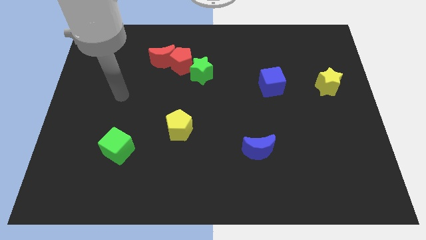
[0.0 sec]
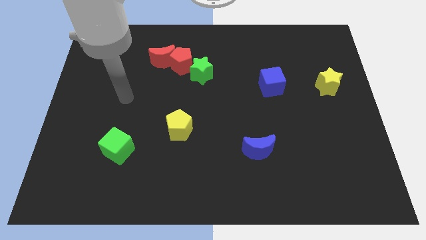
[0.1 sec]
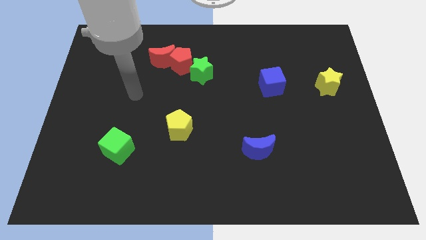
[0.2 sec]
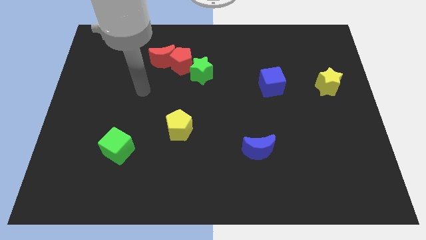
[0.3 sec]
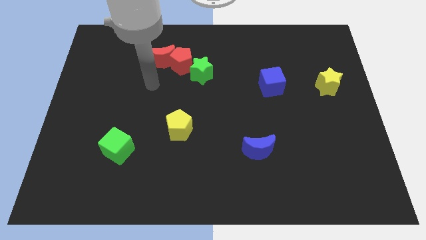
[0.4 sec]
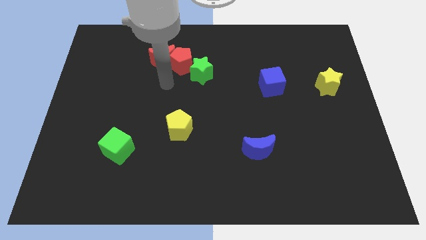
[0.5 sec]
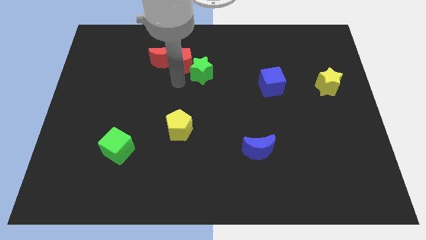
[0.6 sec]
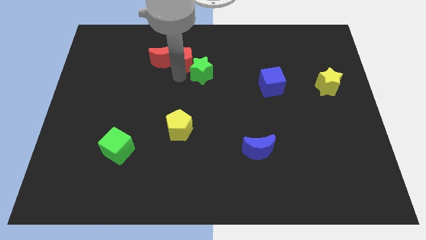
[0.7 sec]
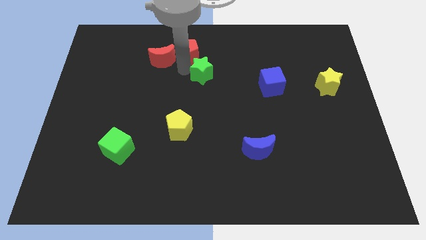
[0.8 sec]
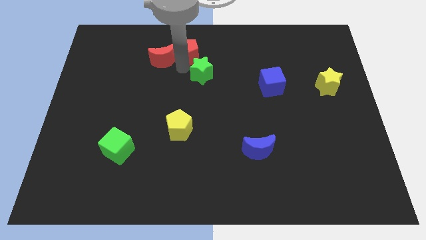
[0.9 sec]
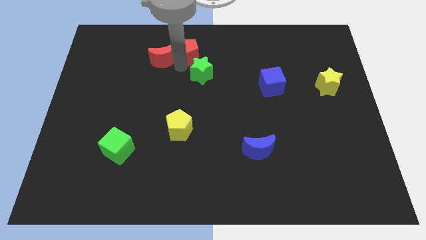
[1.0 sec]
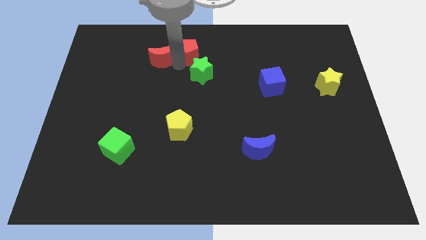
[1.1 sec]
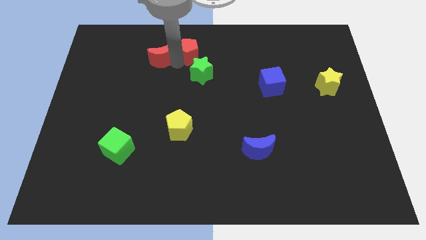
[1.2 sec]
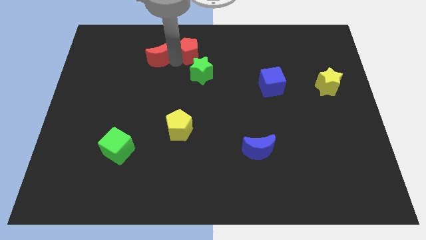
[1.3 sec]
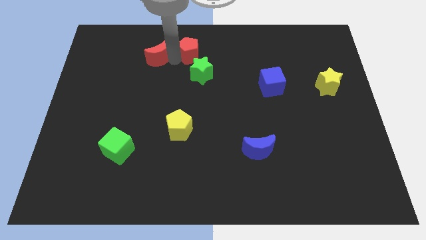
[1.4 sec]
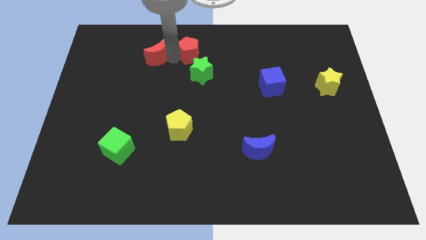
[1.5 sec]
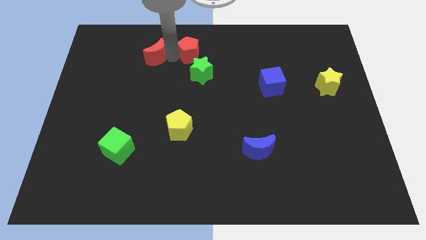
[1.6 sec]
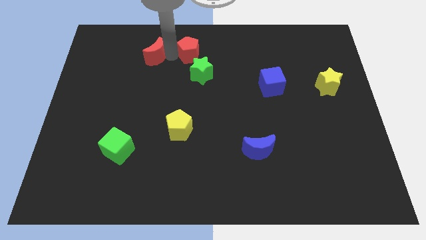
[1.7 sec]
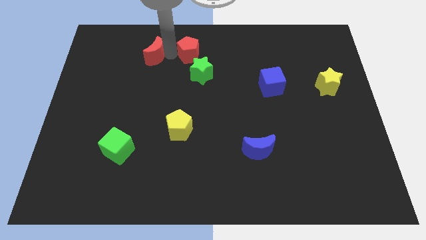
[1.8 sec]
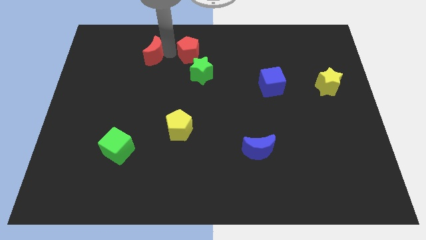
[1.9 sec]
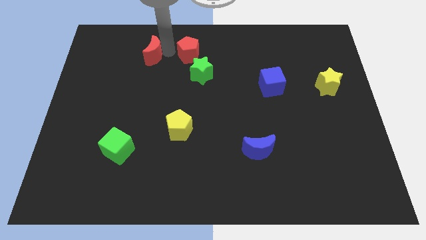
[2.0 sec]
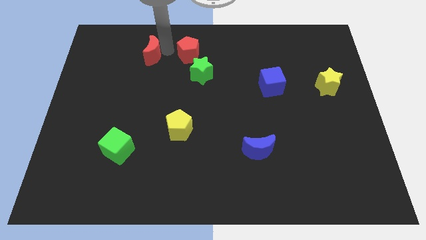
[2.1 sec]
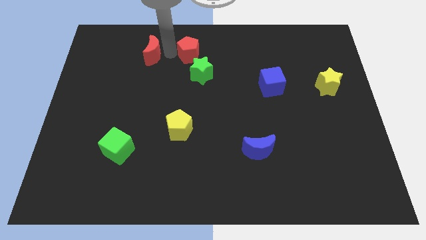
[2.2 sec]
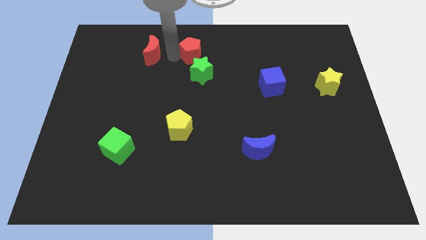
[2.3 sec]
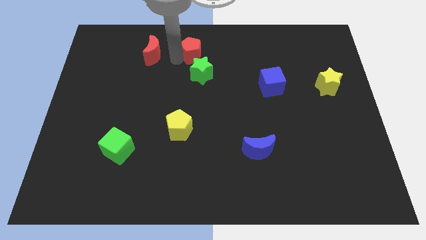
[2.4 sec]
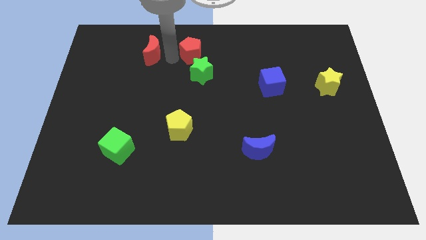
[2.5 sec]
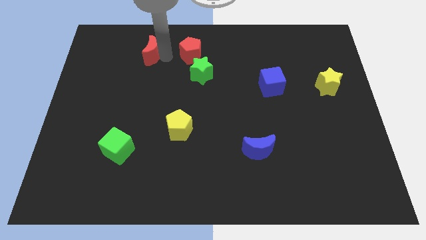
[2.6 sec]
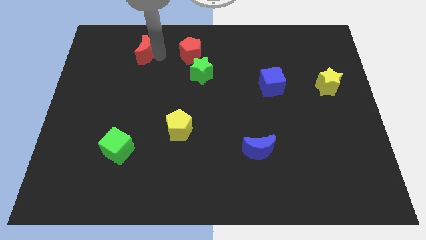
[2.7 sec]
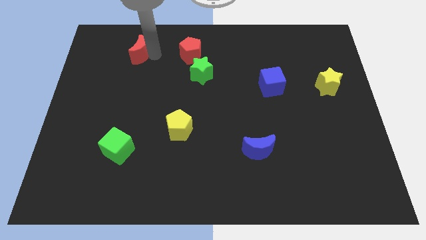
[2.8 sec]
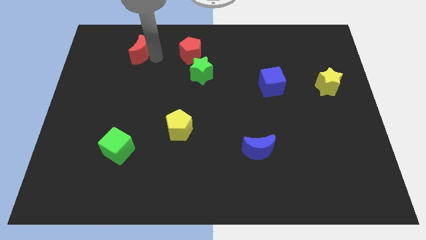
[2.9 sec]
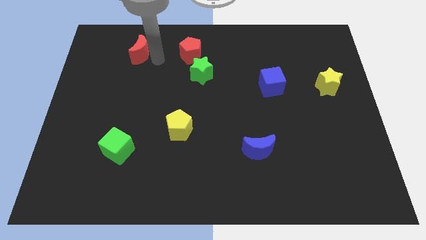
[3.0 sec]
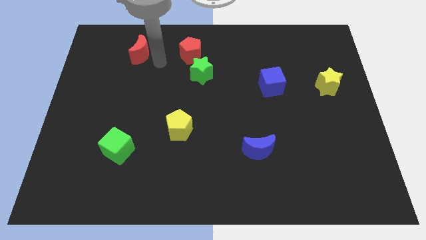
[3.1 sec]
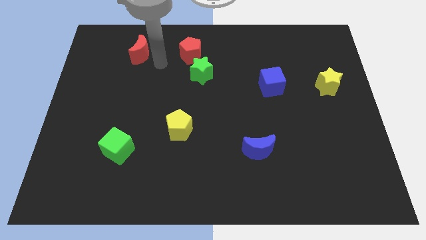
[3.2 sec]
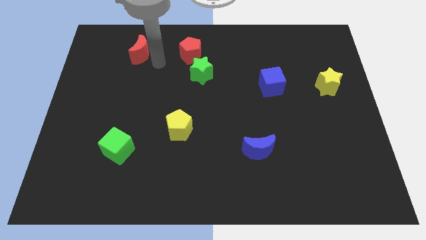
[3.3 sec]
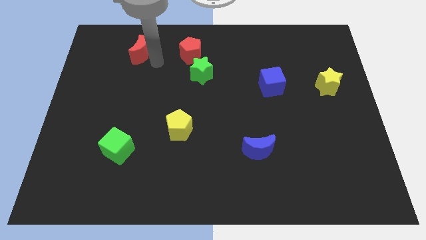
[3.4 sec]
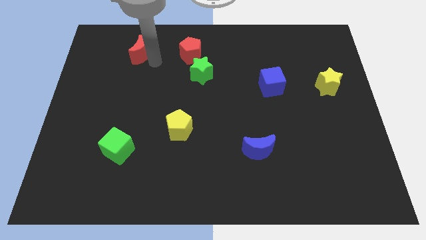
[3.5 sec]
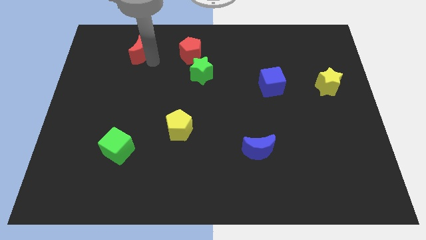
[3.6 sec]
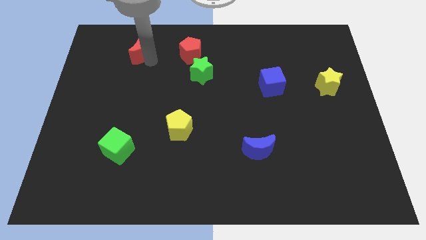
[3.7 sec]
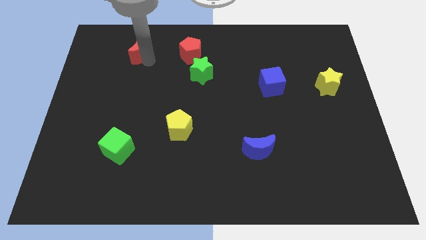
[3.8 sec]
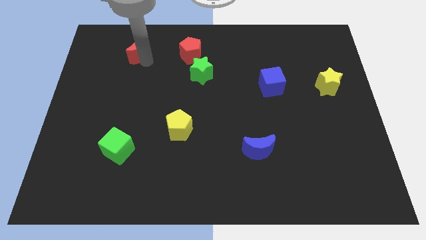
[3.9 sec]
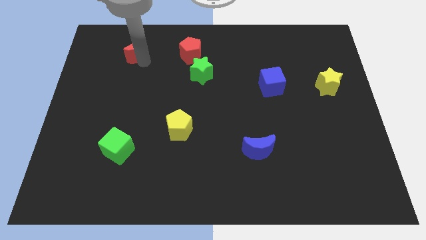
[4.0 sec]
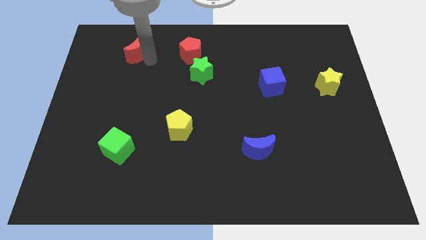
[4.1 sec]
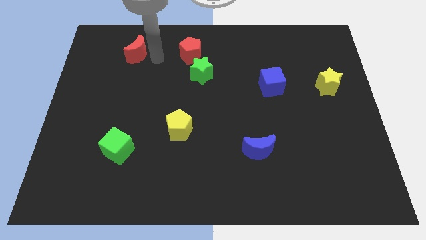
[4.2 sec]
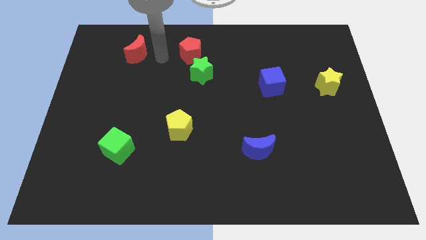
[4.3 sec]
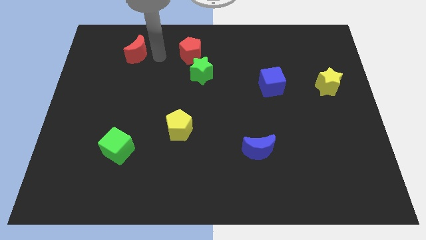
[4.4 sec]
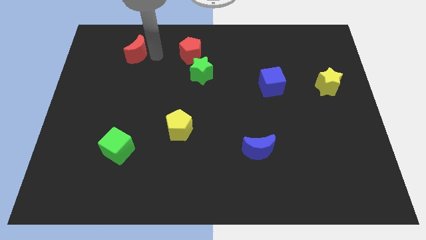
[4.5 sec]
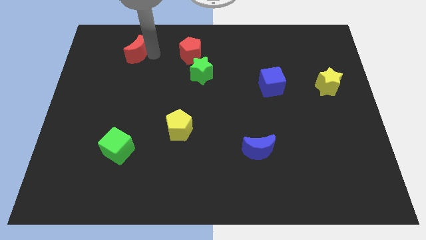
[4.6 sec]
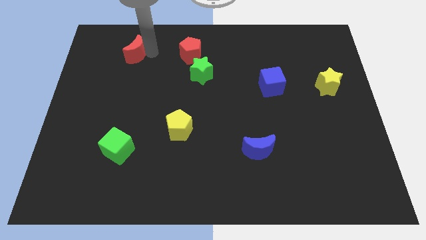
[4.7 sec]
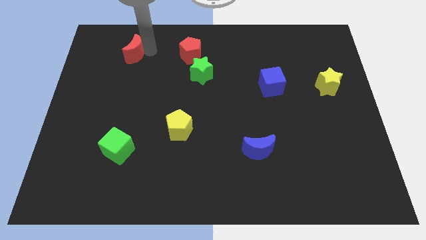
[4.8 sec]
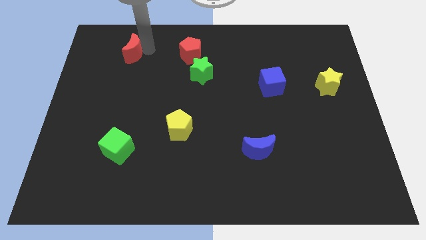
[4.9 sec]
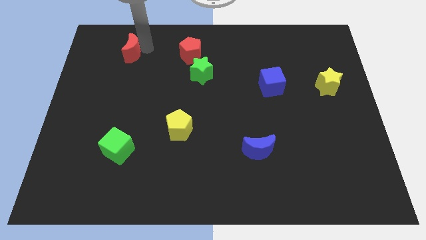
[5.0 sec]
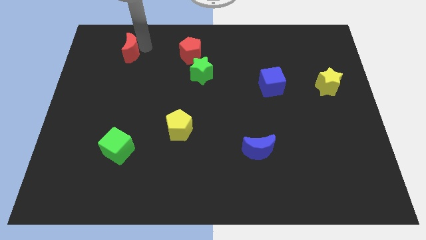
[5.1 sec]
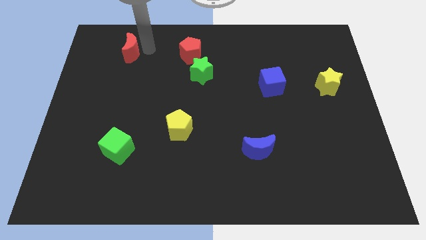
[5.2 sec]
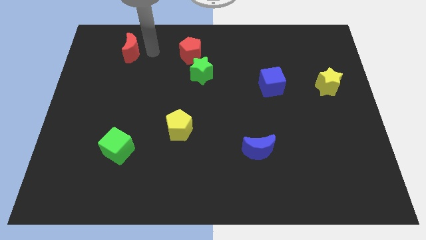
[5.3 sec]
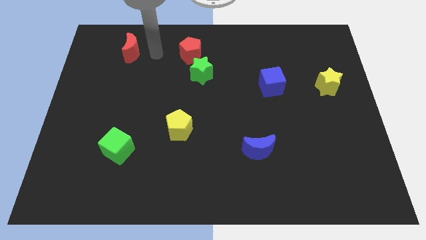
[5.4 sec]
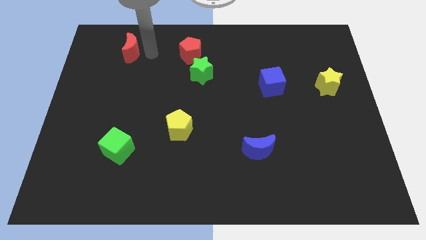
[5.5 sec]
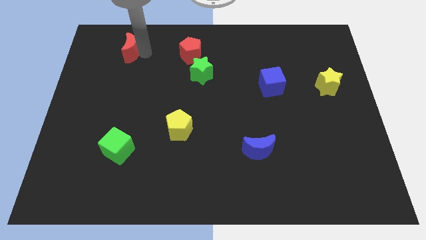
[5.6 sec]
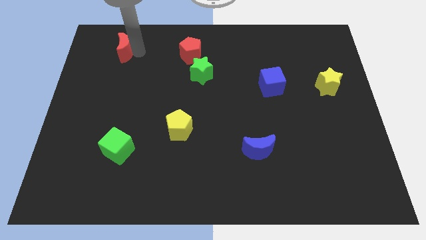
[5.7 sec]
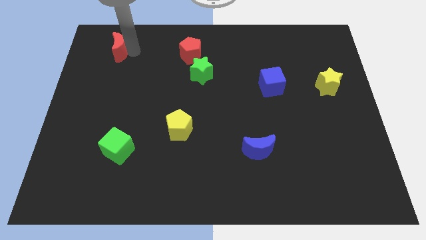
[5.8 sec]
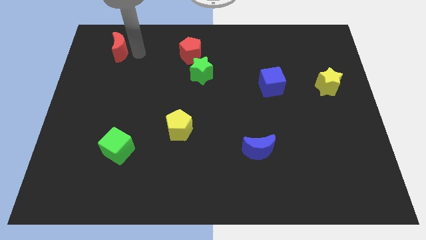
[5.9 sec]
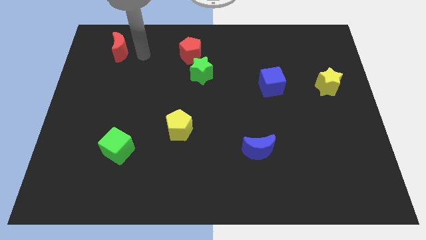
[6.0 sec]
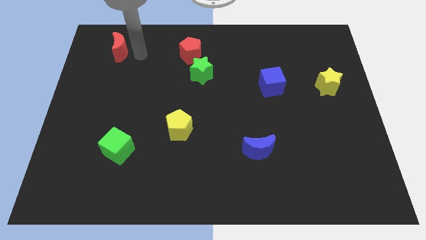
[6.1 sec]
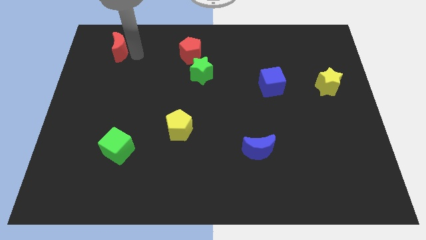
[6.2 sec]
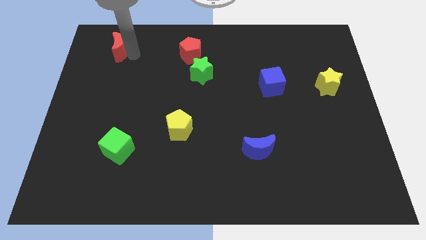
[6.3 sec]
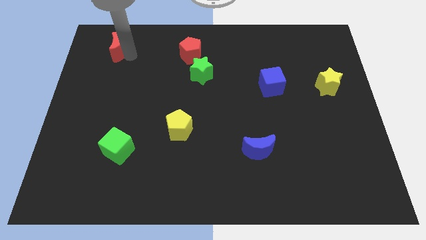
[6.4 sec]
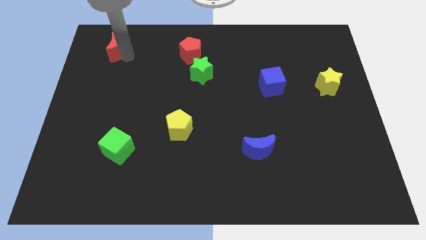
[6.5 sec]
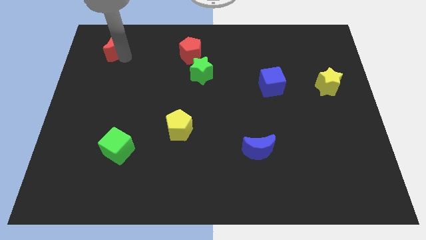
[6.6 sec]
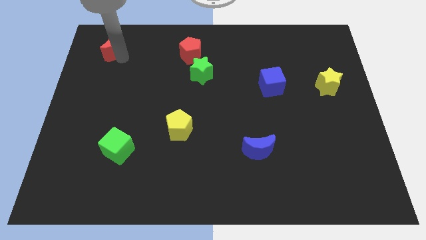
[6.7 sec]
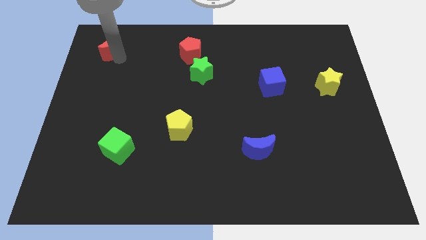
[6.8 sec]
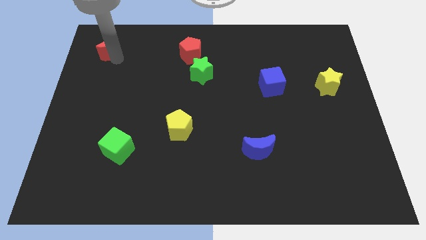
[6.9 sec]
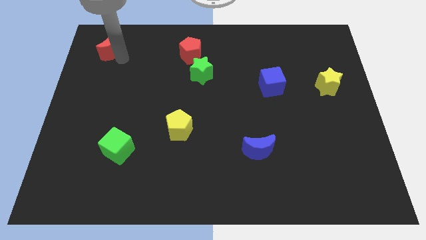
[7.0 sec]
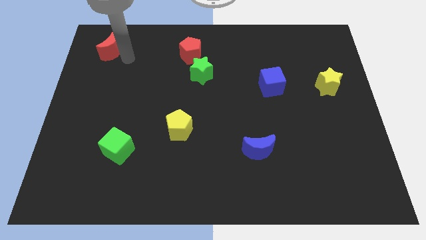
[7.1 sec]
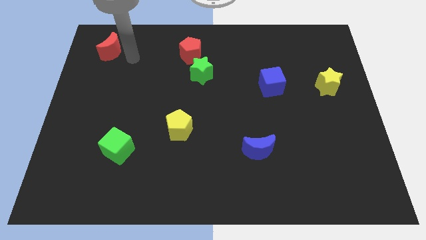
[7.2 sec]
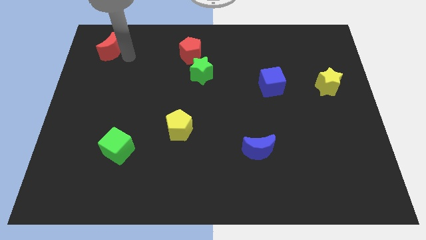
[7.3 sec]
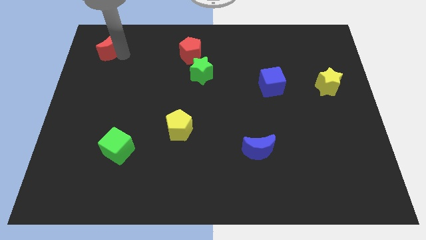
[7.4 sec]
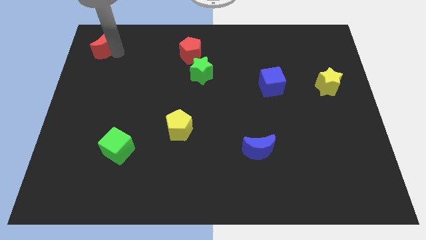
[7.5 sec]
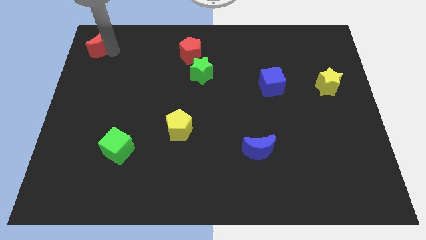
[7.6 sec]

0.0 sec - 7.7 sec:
slide the red moon to the top left
